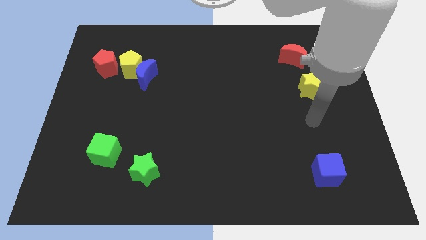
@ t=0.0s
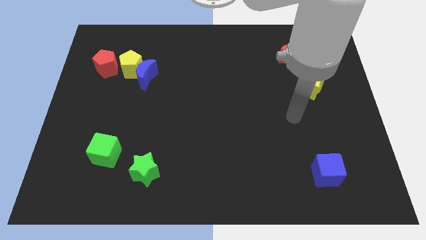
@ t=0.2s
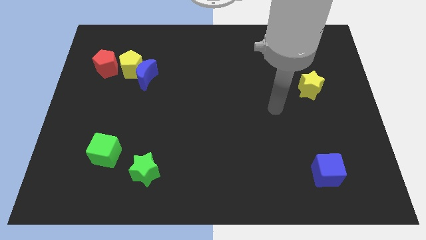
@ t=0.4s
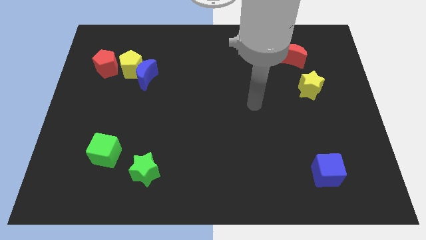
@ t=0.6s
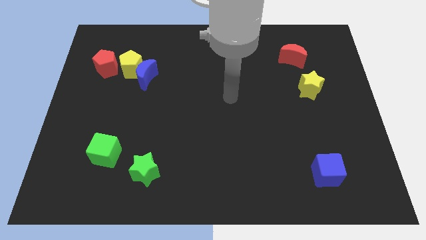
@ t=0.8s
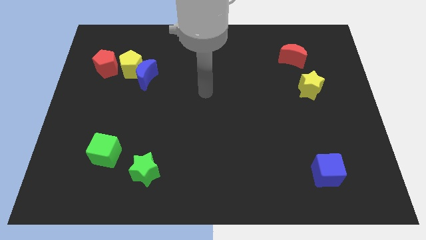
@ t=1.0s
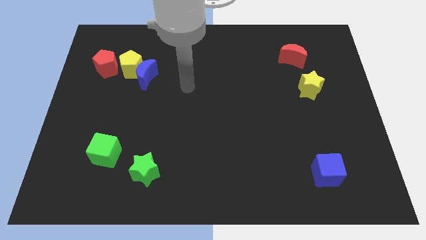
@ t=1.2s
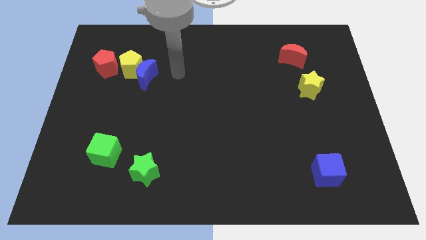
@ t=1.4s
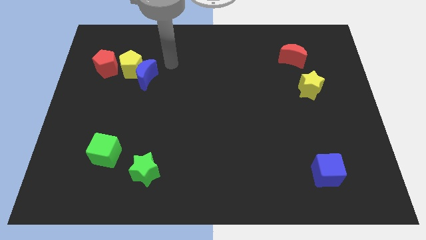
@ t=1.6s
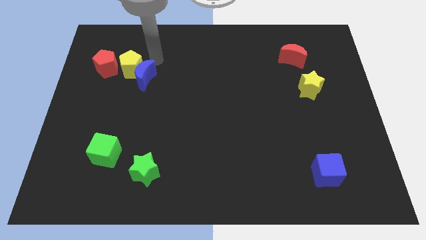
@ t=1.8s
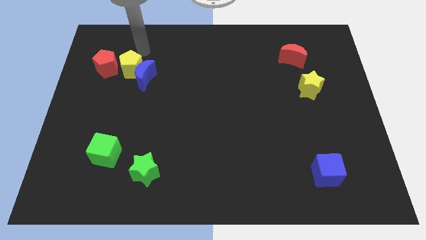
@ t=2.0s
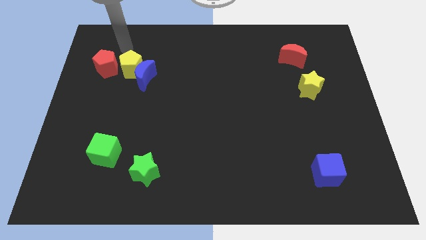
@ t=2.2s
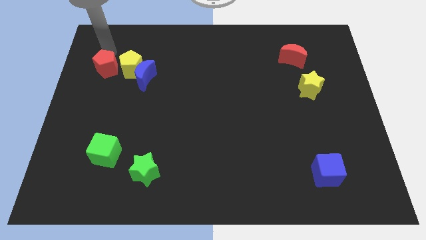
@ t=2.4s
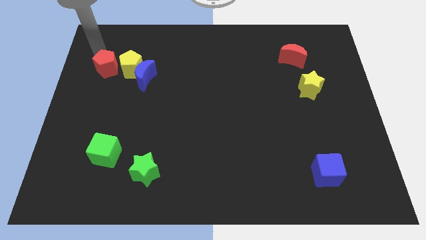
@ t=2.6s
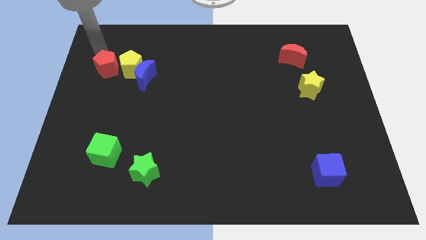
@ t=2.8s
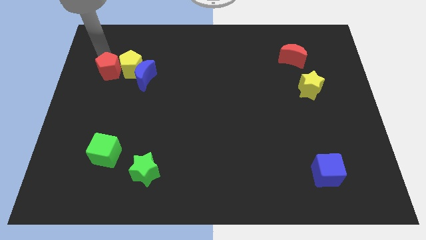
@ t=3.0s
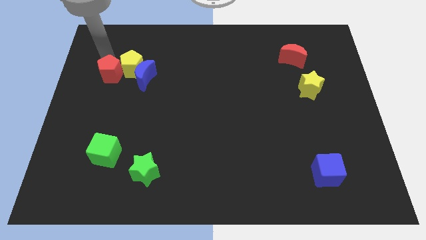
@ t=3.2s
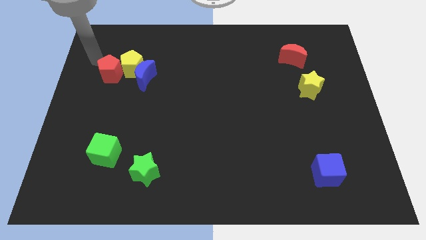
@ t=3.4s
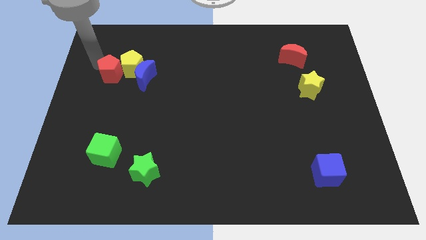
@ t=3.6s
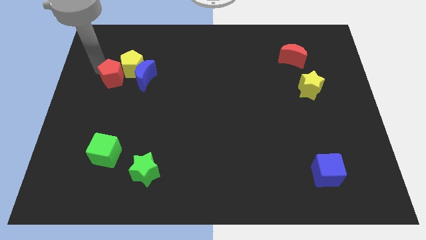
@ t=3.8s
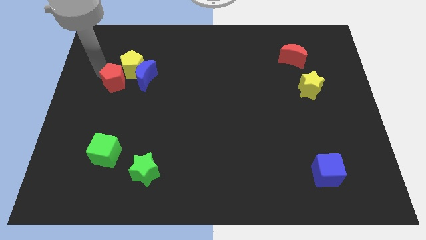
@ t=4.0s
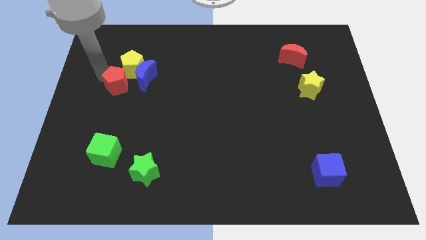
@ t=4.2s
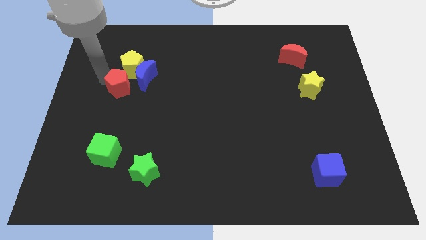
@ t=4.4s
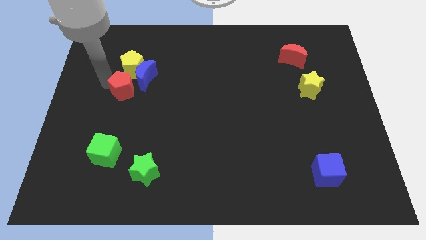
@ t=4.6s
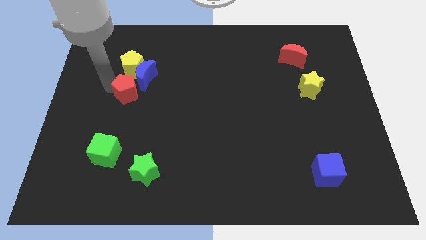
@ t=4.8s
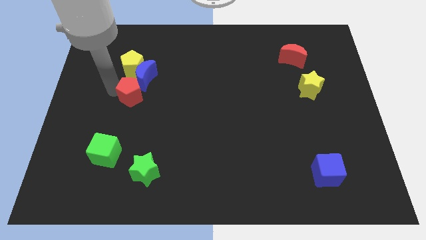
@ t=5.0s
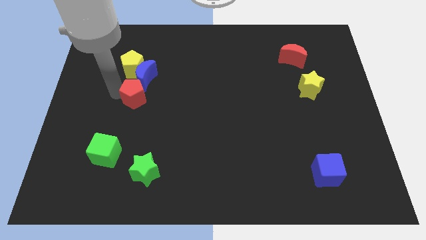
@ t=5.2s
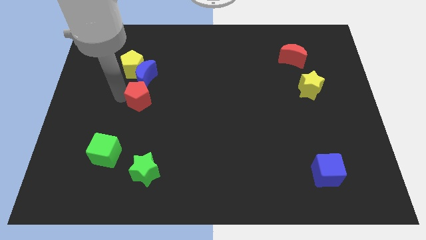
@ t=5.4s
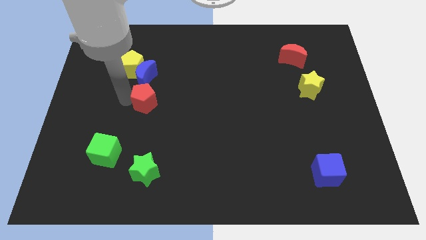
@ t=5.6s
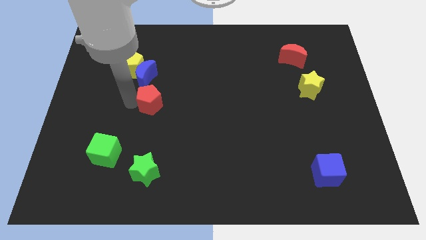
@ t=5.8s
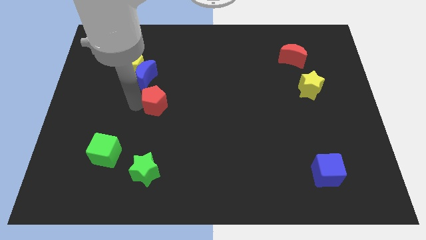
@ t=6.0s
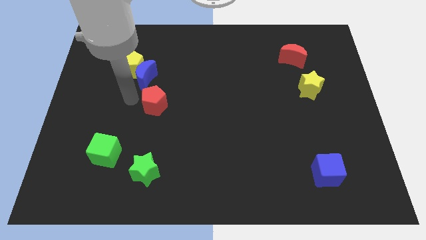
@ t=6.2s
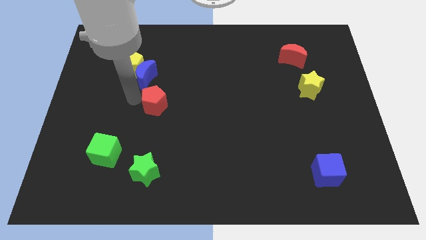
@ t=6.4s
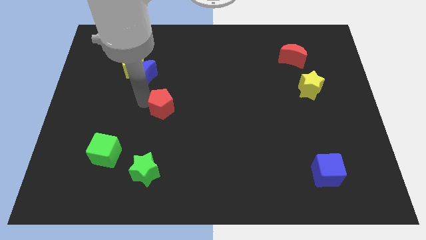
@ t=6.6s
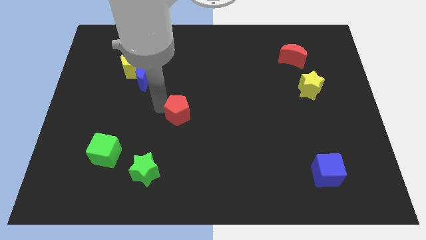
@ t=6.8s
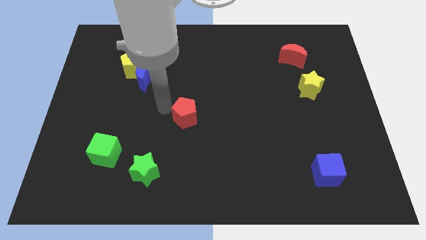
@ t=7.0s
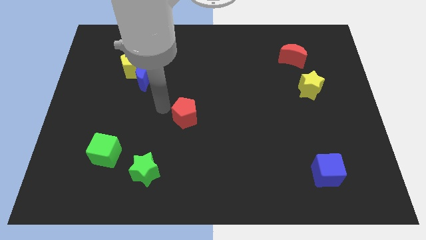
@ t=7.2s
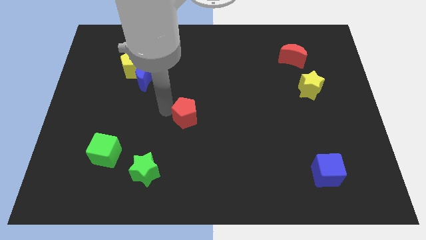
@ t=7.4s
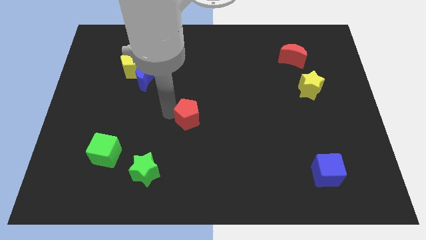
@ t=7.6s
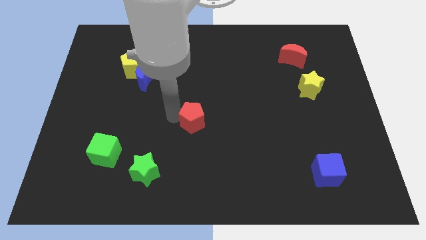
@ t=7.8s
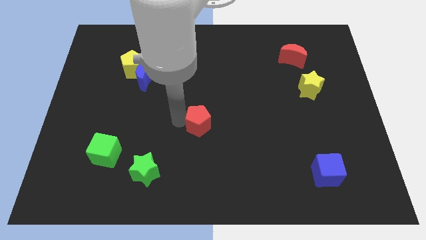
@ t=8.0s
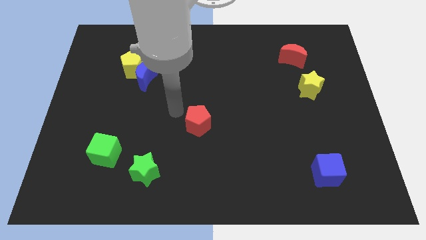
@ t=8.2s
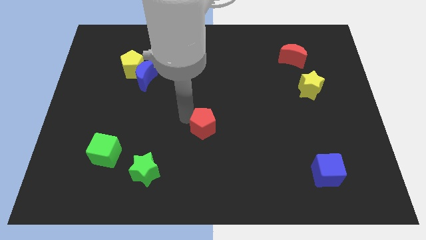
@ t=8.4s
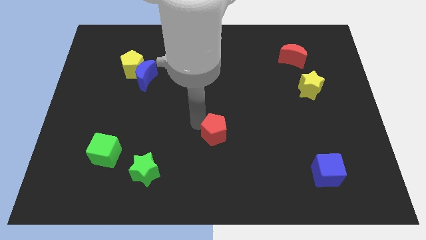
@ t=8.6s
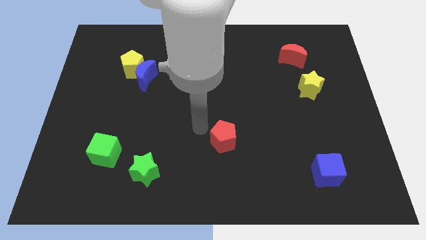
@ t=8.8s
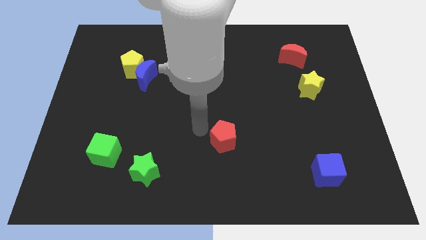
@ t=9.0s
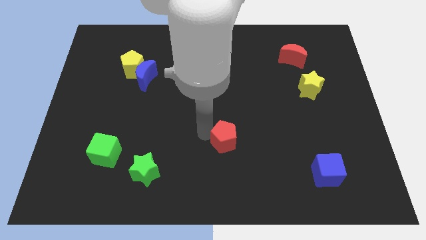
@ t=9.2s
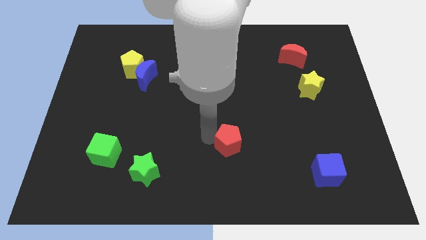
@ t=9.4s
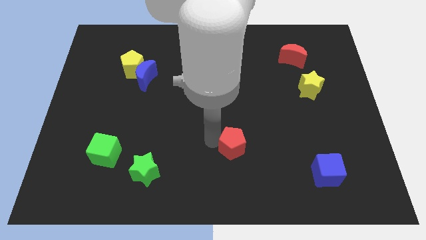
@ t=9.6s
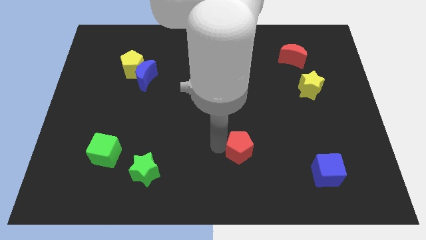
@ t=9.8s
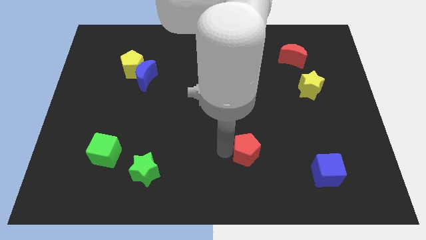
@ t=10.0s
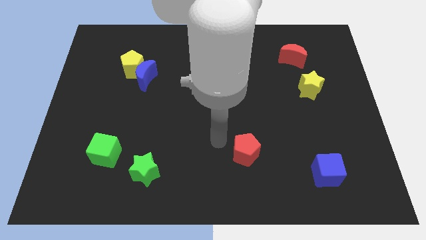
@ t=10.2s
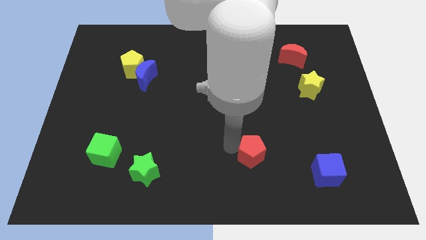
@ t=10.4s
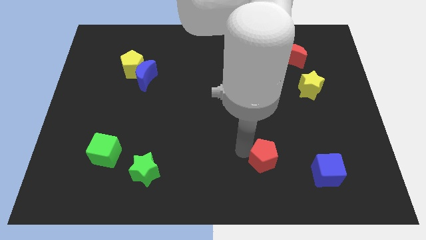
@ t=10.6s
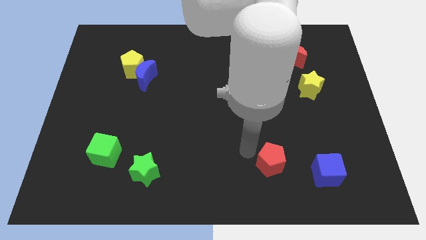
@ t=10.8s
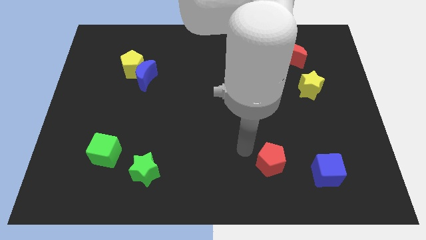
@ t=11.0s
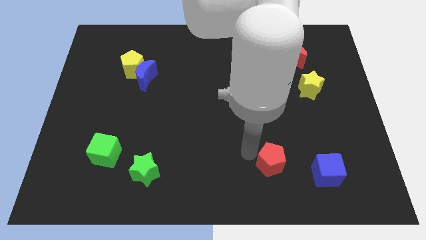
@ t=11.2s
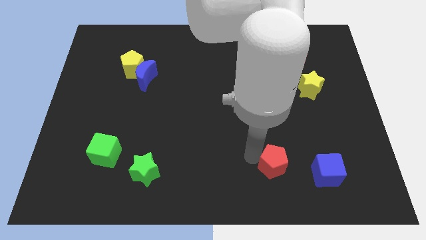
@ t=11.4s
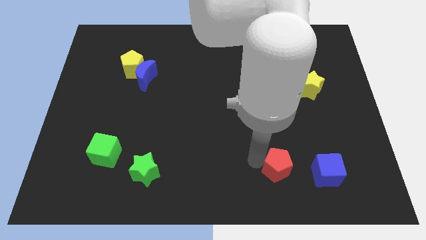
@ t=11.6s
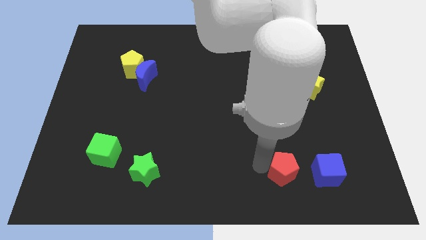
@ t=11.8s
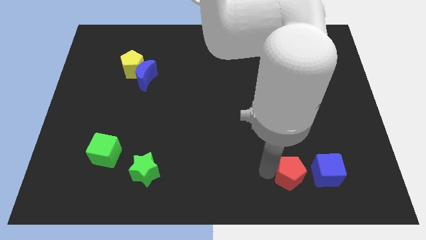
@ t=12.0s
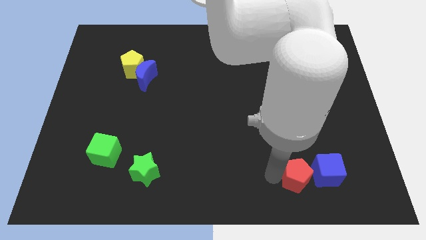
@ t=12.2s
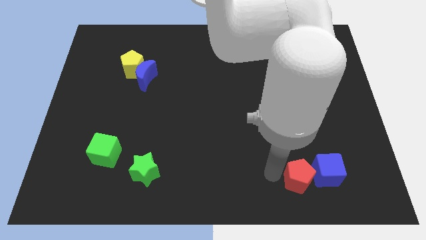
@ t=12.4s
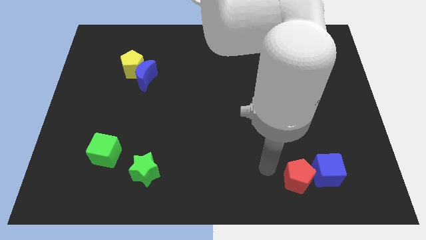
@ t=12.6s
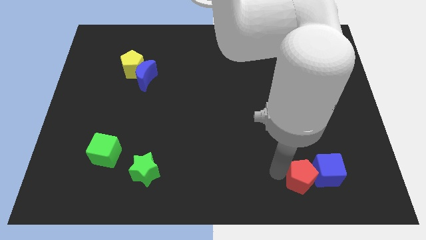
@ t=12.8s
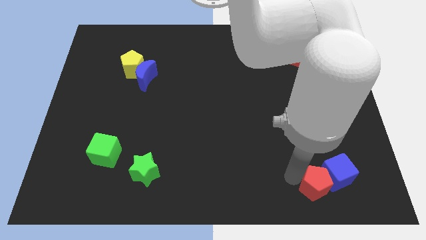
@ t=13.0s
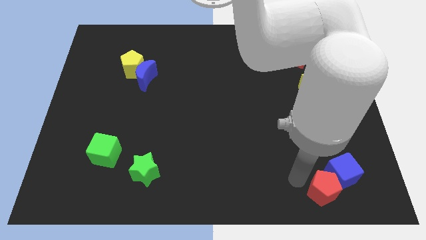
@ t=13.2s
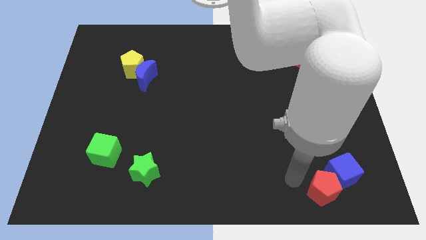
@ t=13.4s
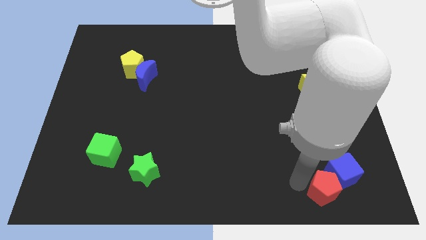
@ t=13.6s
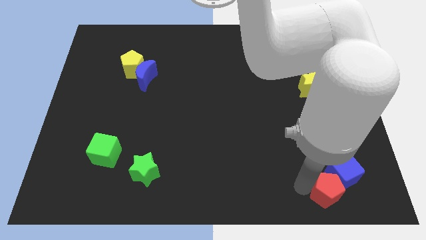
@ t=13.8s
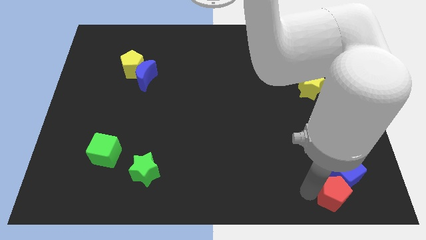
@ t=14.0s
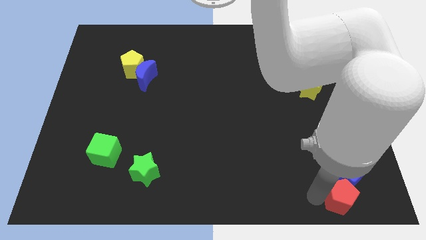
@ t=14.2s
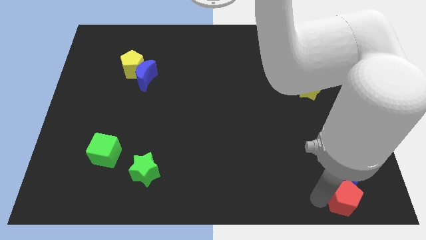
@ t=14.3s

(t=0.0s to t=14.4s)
put the red pentagon to the bottom right of the board
